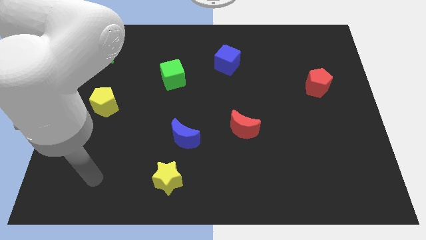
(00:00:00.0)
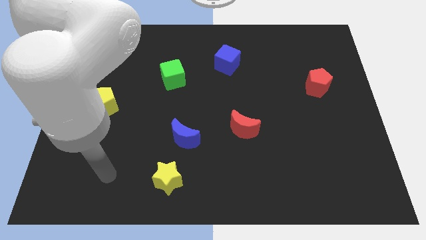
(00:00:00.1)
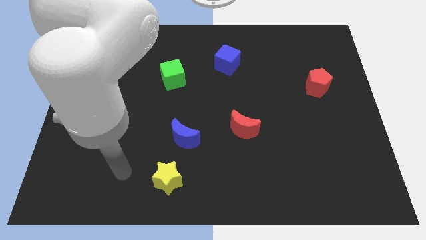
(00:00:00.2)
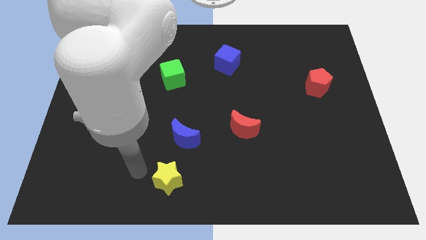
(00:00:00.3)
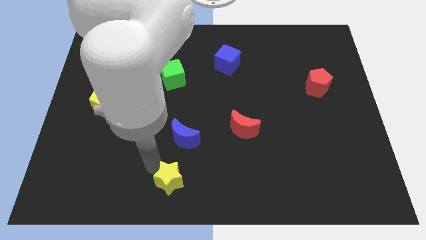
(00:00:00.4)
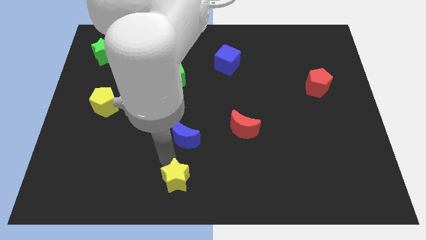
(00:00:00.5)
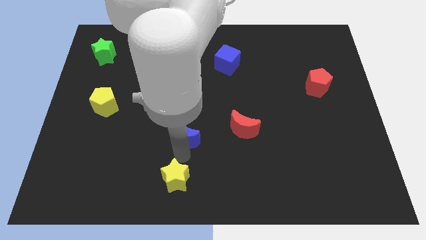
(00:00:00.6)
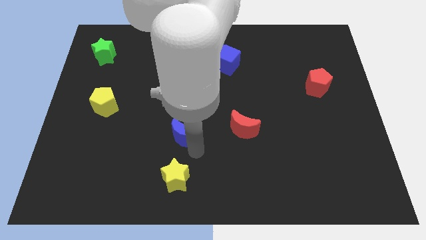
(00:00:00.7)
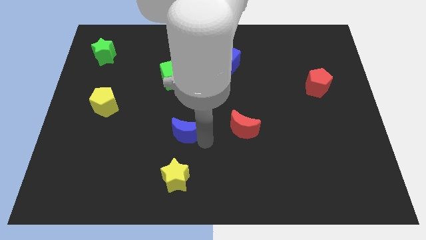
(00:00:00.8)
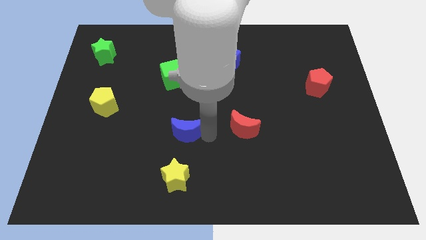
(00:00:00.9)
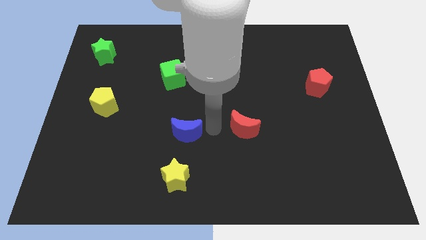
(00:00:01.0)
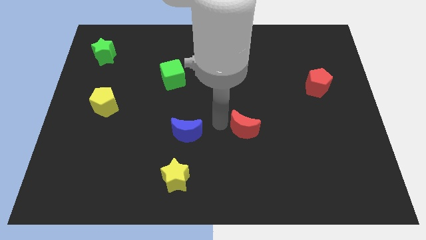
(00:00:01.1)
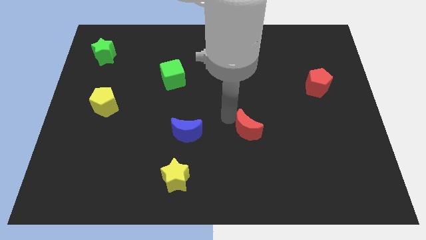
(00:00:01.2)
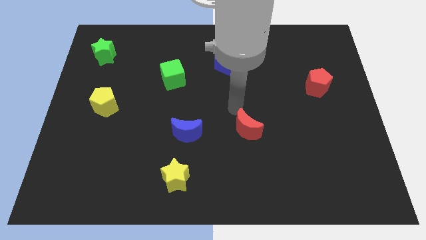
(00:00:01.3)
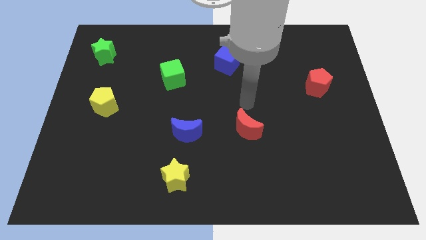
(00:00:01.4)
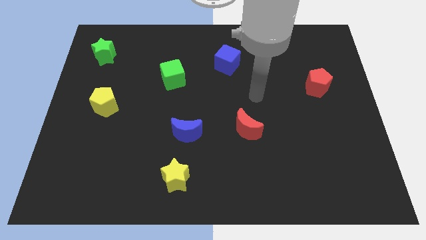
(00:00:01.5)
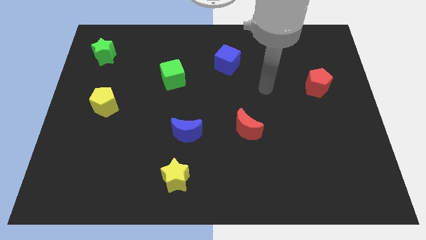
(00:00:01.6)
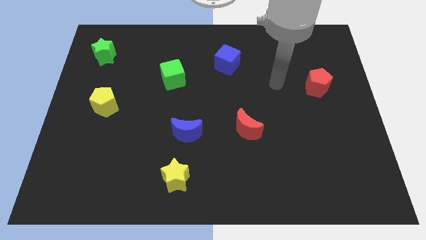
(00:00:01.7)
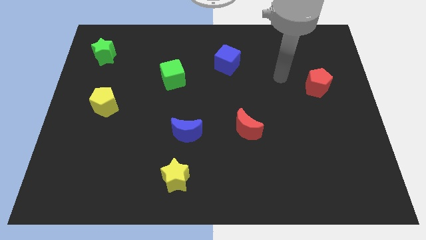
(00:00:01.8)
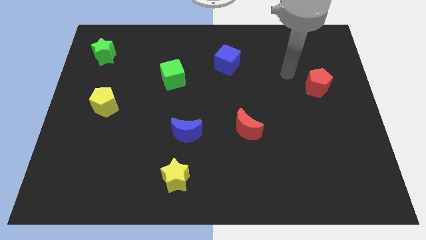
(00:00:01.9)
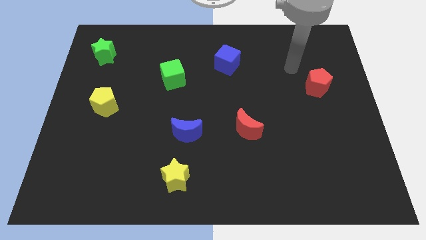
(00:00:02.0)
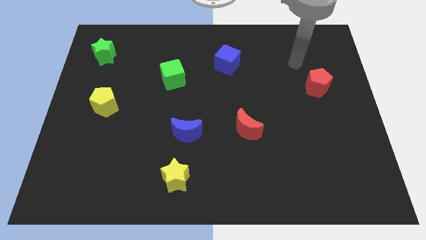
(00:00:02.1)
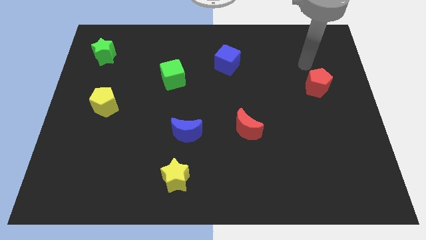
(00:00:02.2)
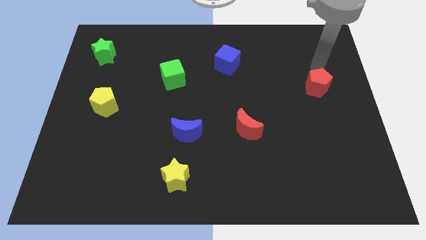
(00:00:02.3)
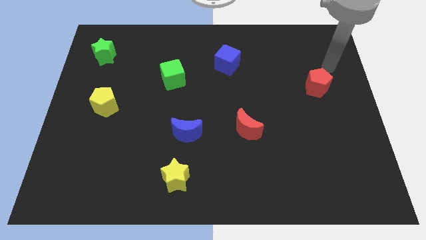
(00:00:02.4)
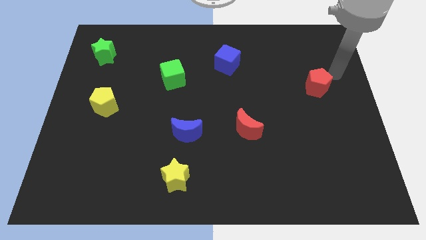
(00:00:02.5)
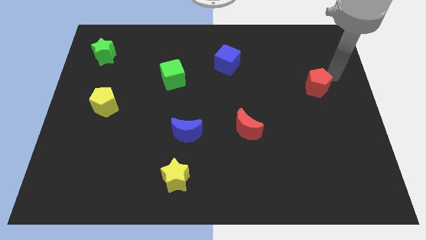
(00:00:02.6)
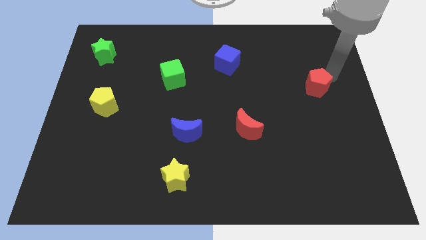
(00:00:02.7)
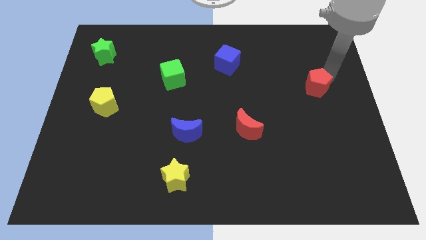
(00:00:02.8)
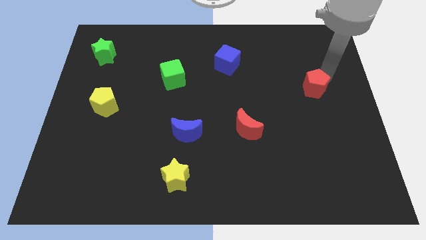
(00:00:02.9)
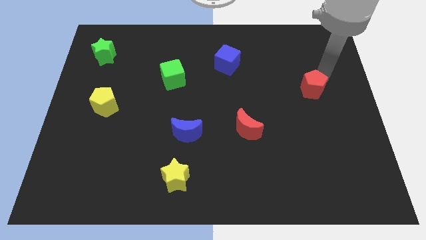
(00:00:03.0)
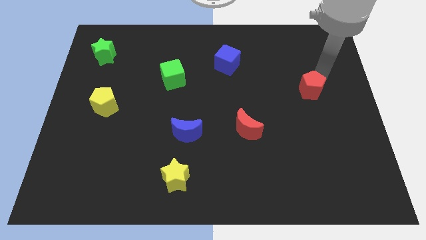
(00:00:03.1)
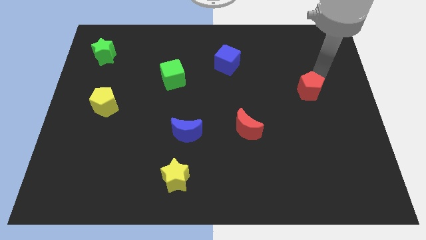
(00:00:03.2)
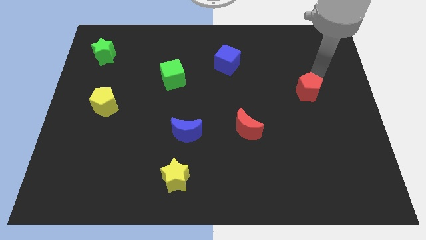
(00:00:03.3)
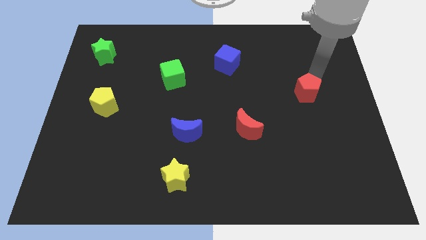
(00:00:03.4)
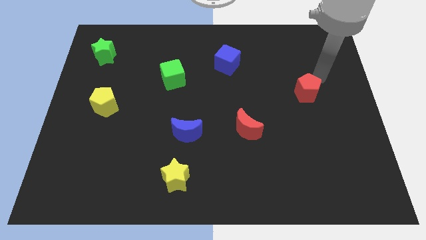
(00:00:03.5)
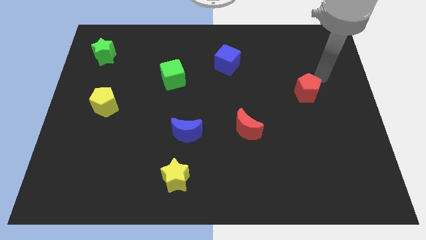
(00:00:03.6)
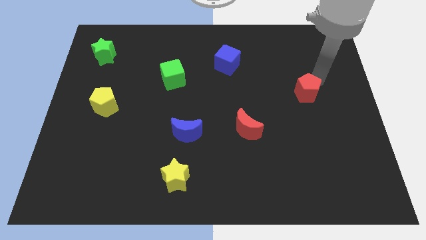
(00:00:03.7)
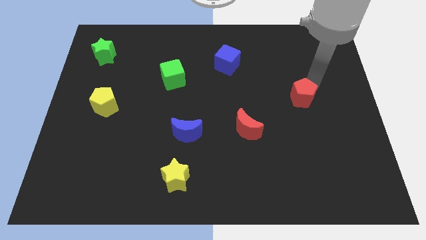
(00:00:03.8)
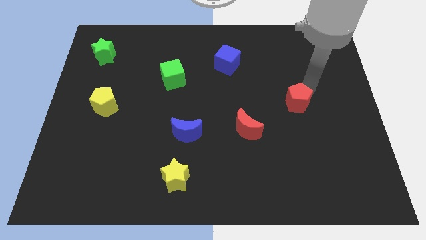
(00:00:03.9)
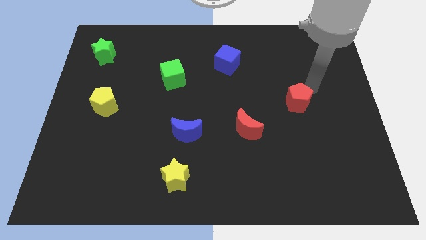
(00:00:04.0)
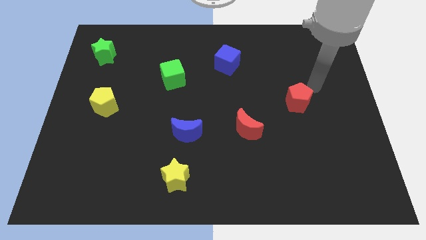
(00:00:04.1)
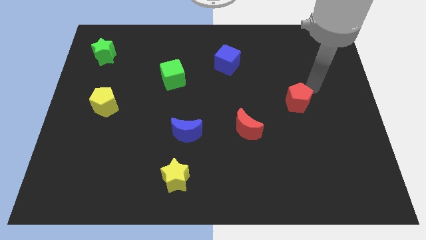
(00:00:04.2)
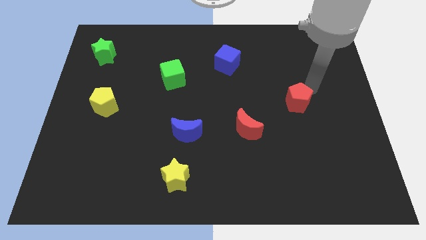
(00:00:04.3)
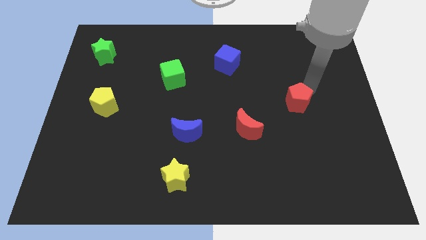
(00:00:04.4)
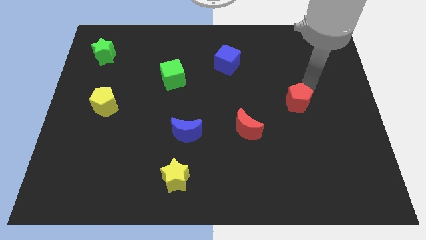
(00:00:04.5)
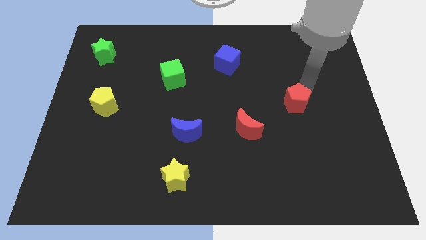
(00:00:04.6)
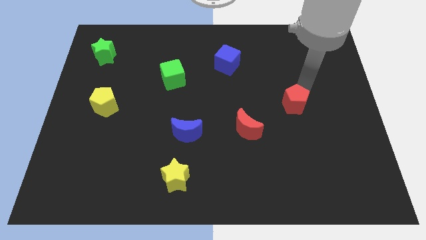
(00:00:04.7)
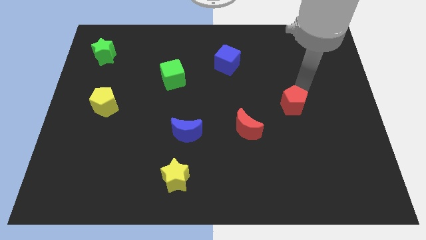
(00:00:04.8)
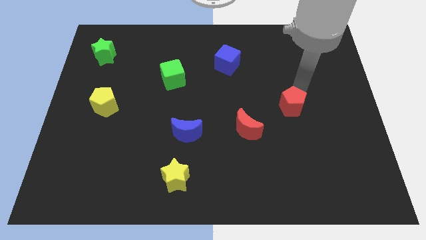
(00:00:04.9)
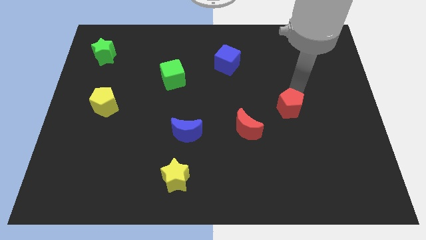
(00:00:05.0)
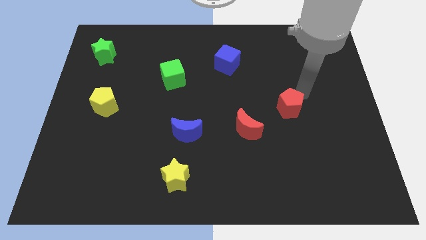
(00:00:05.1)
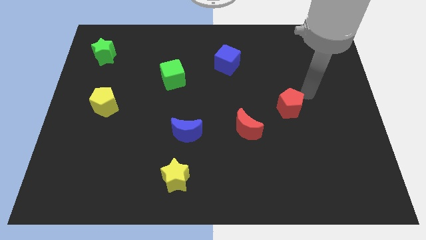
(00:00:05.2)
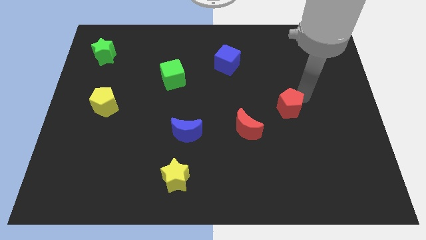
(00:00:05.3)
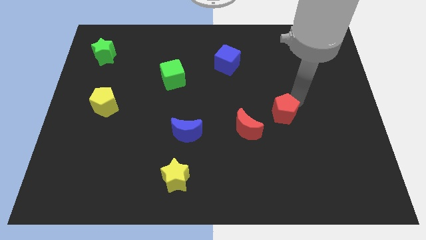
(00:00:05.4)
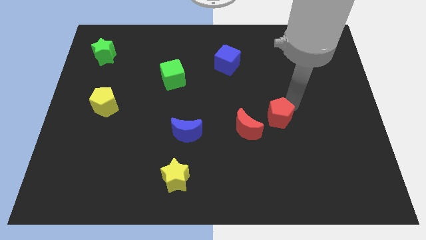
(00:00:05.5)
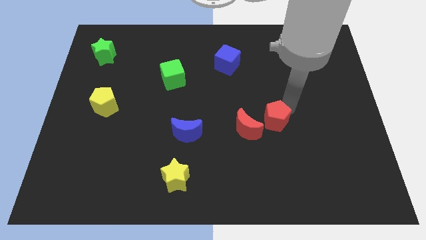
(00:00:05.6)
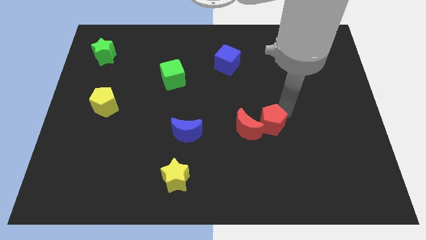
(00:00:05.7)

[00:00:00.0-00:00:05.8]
put the red pentagon towards the red moon

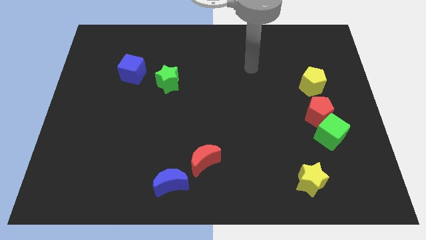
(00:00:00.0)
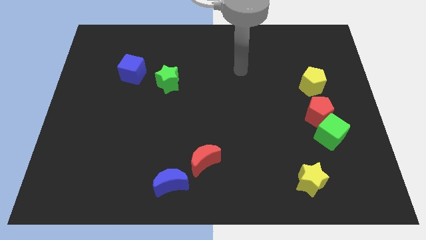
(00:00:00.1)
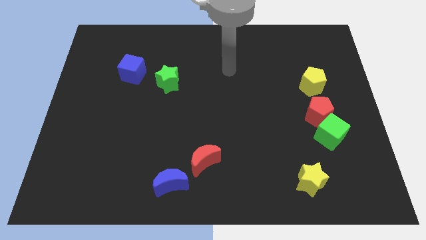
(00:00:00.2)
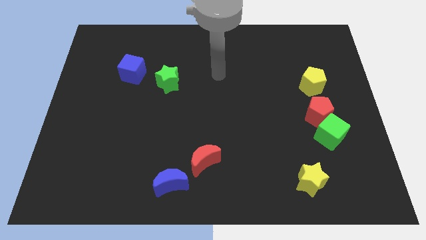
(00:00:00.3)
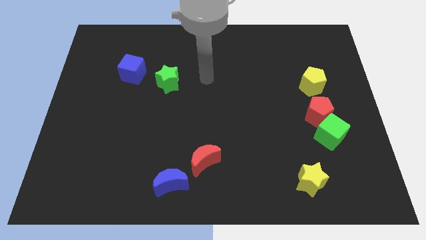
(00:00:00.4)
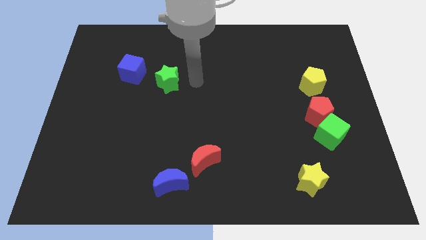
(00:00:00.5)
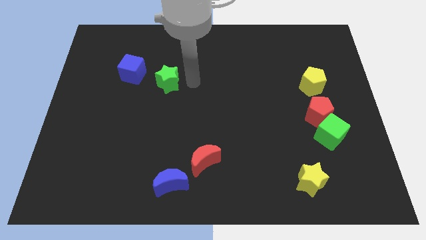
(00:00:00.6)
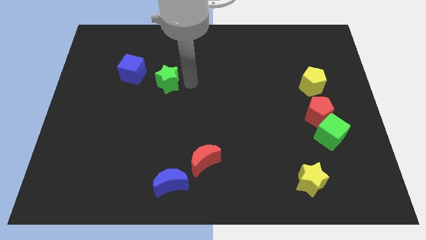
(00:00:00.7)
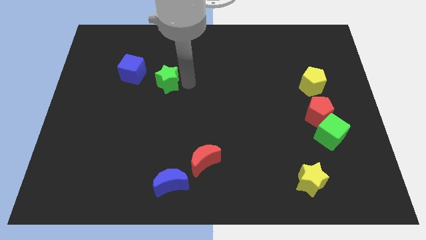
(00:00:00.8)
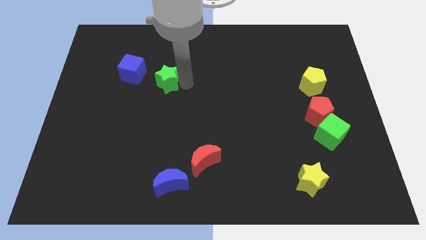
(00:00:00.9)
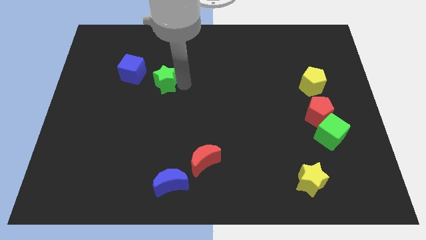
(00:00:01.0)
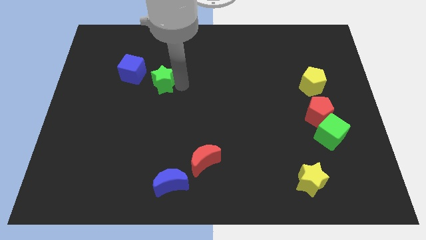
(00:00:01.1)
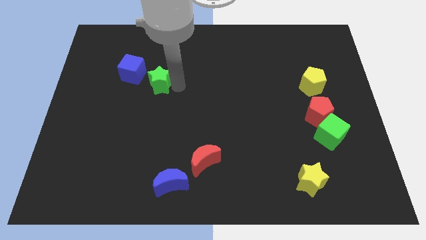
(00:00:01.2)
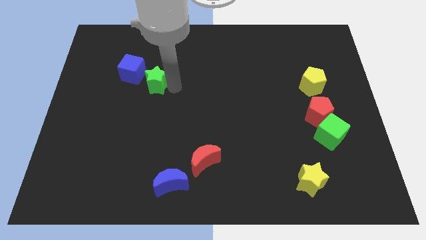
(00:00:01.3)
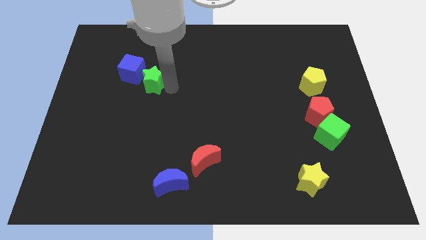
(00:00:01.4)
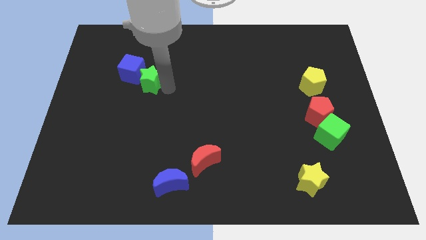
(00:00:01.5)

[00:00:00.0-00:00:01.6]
push the green star towards the blue cube

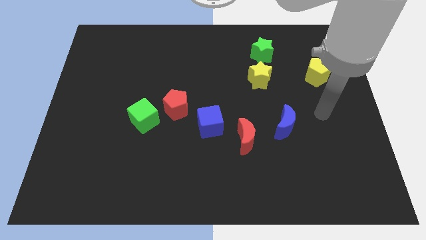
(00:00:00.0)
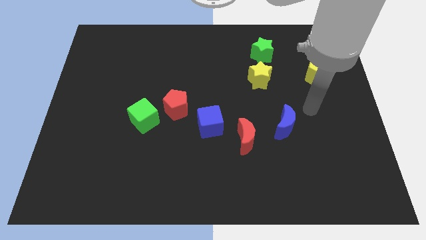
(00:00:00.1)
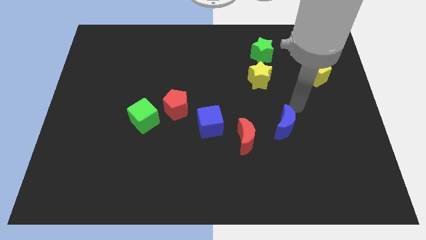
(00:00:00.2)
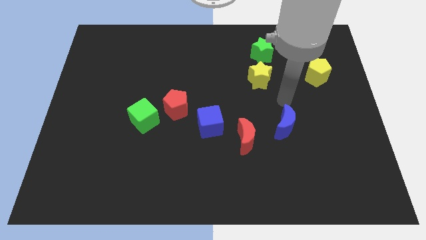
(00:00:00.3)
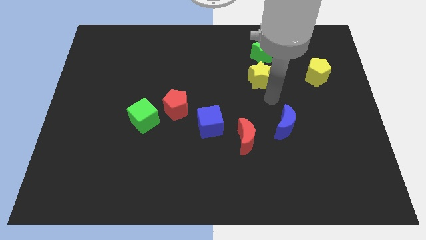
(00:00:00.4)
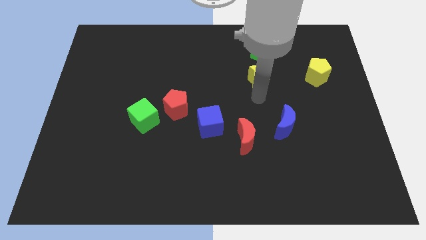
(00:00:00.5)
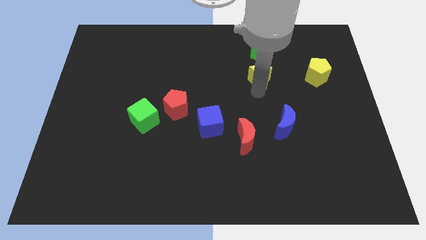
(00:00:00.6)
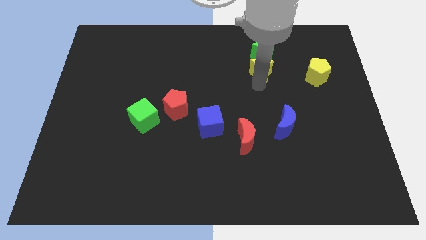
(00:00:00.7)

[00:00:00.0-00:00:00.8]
move the yellow star to the green star
